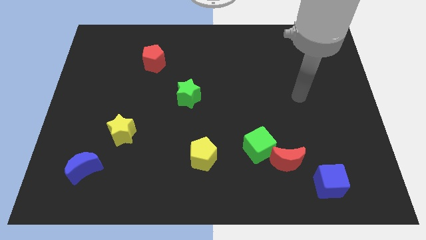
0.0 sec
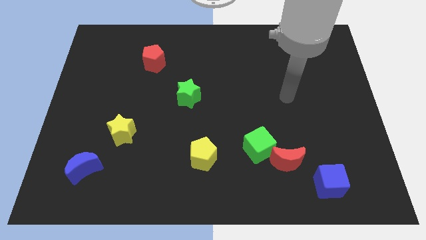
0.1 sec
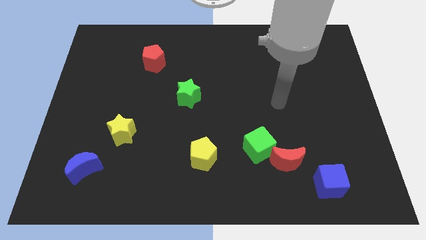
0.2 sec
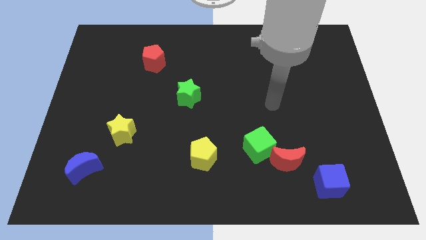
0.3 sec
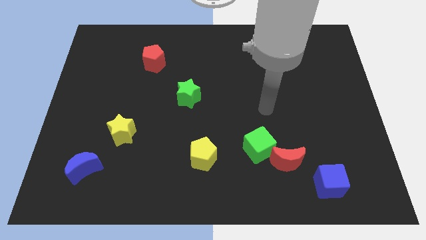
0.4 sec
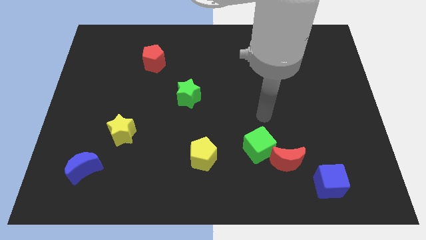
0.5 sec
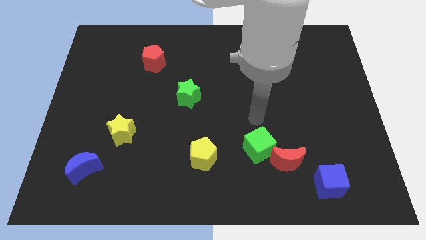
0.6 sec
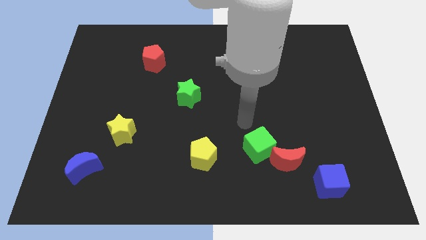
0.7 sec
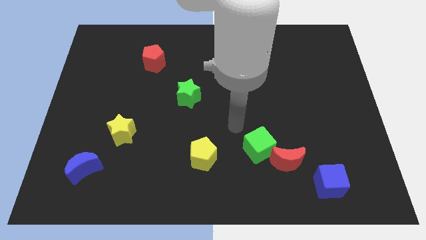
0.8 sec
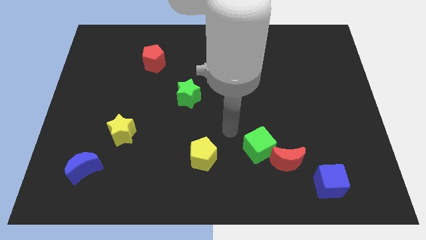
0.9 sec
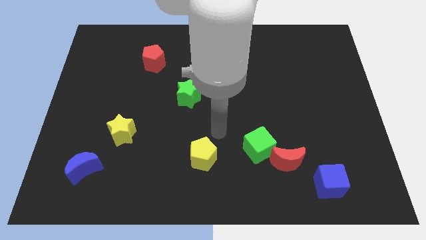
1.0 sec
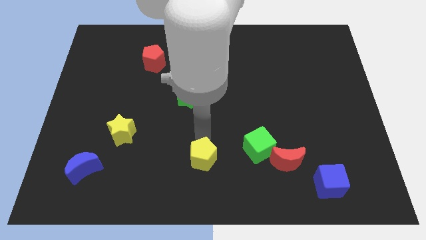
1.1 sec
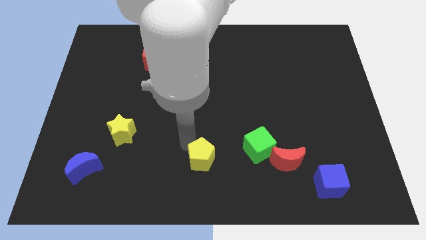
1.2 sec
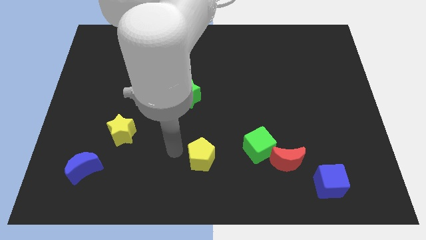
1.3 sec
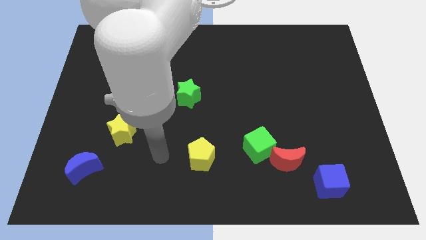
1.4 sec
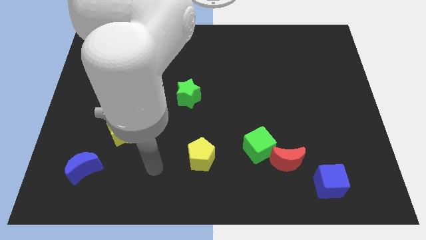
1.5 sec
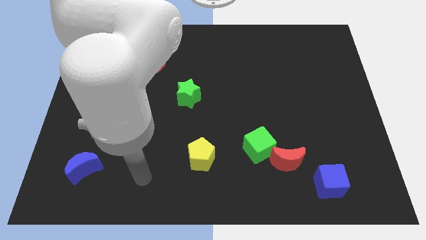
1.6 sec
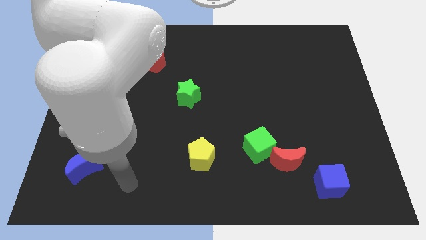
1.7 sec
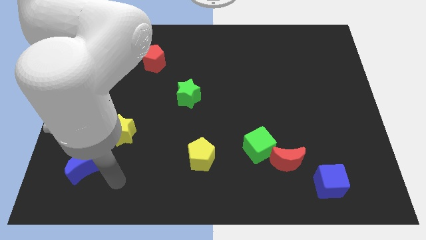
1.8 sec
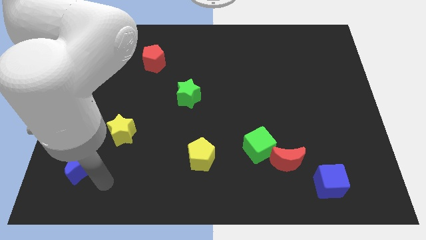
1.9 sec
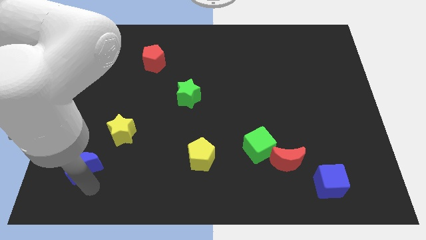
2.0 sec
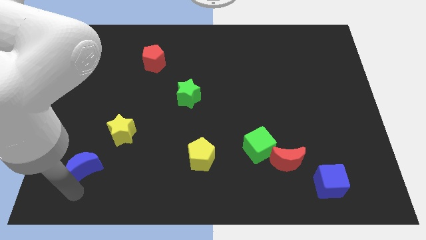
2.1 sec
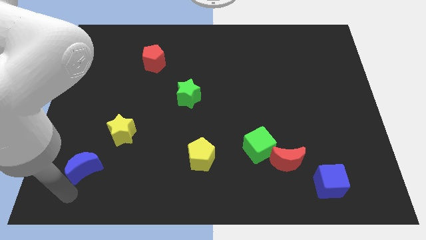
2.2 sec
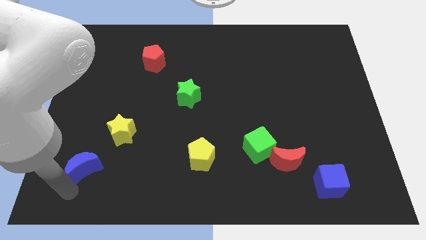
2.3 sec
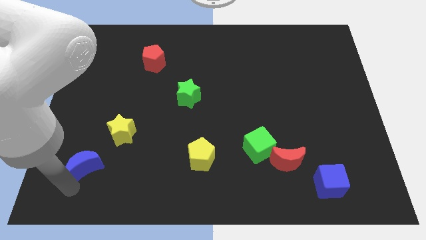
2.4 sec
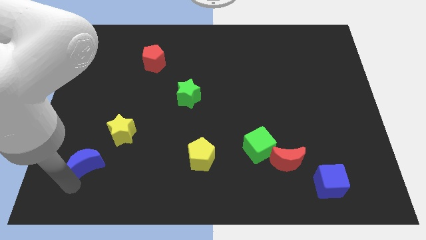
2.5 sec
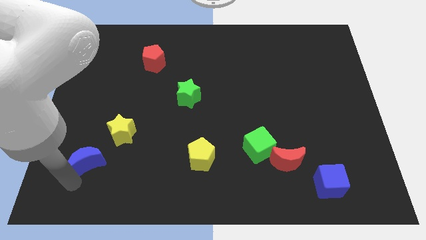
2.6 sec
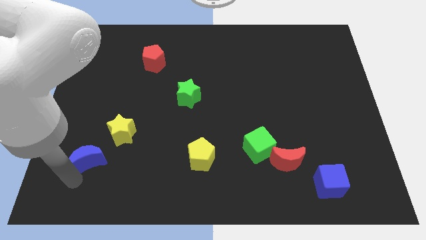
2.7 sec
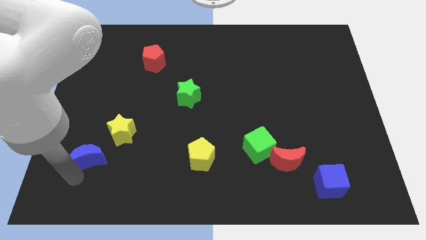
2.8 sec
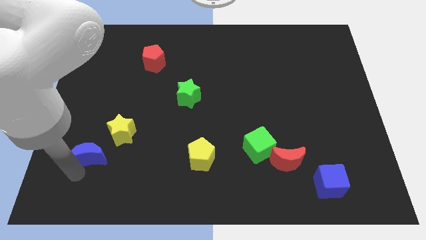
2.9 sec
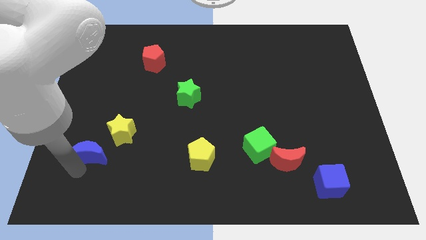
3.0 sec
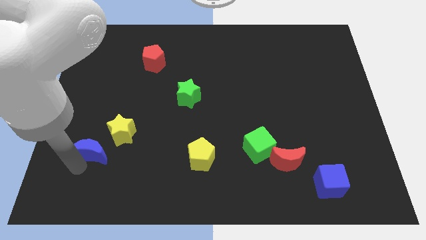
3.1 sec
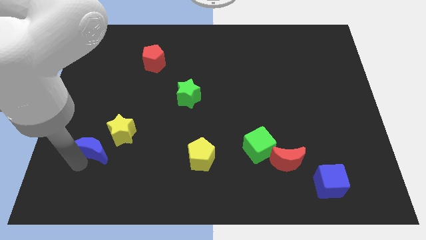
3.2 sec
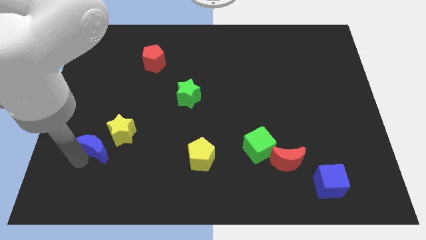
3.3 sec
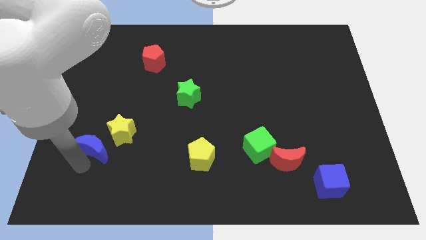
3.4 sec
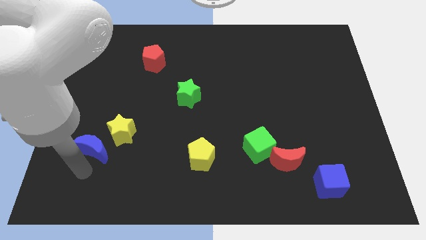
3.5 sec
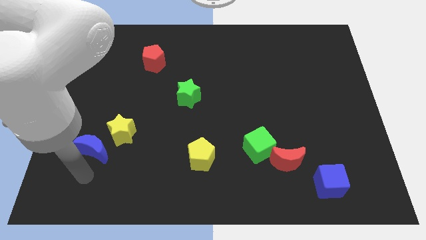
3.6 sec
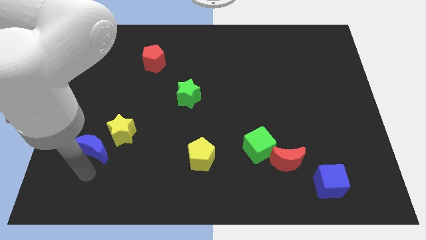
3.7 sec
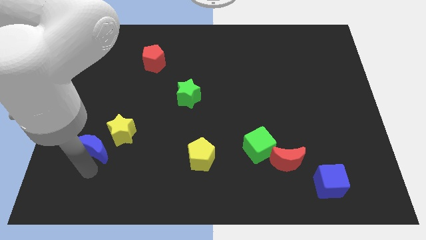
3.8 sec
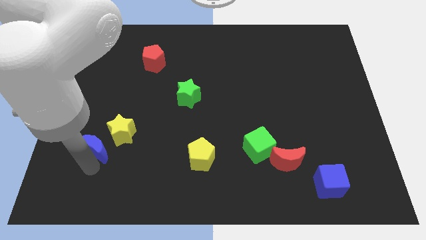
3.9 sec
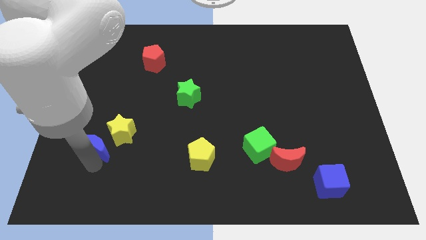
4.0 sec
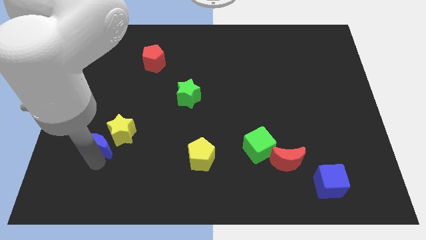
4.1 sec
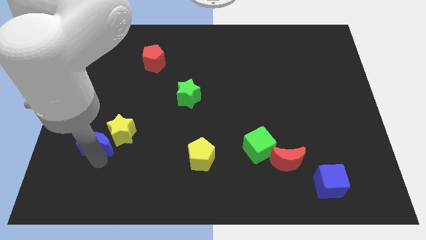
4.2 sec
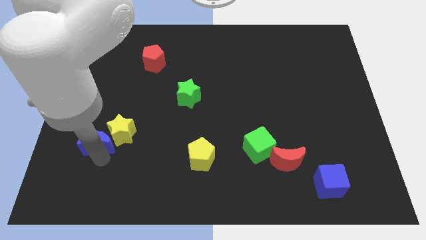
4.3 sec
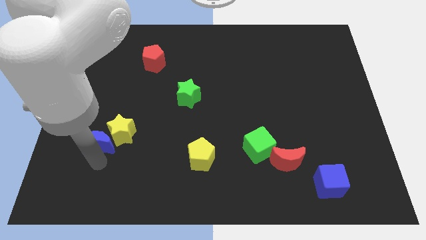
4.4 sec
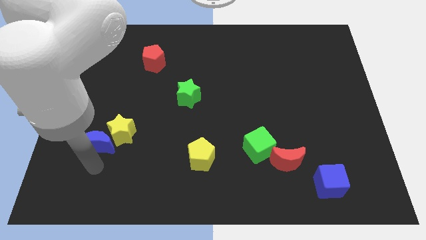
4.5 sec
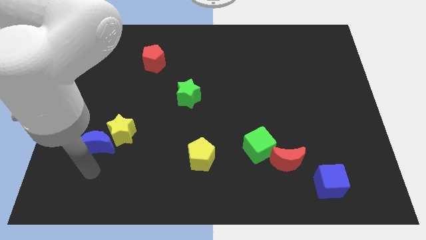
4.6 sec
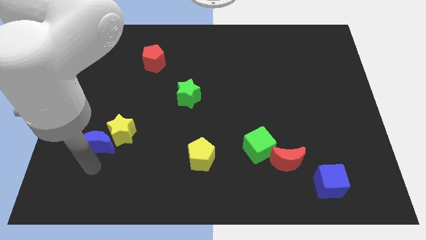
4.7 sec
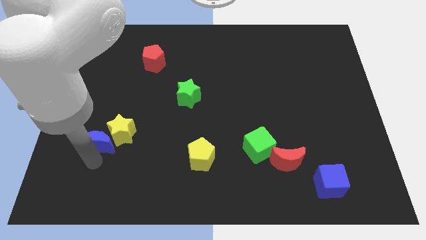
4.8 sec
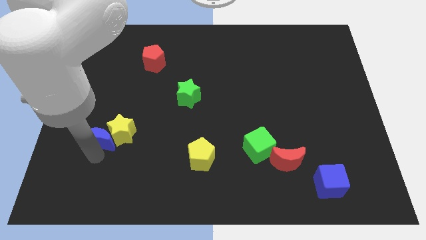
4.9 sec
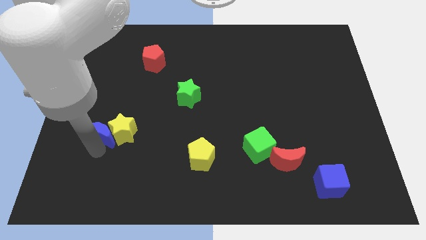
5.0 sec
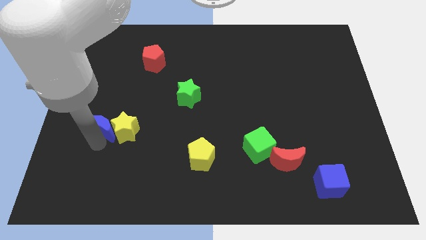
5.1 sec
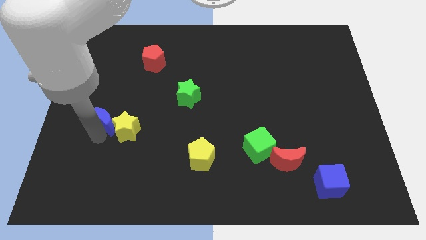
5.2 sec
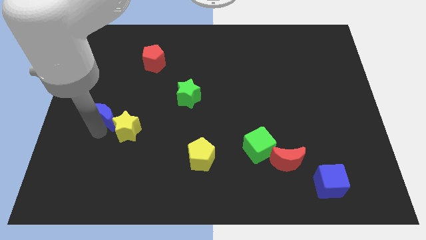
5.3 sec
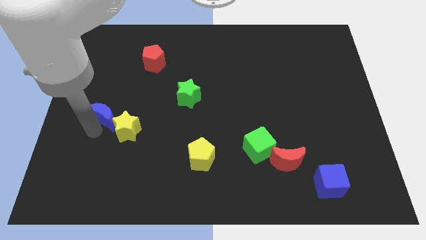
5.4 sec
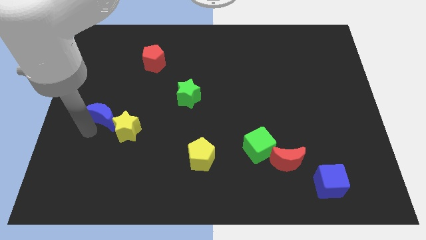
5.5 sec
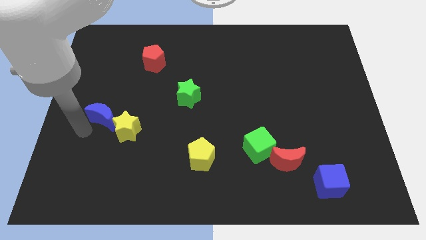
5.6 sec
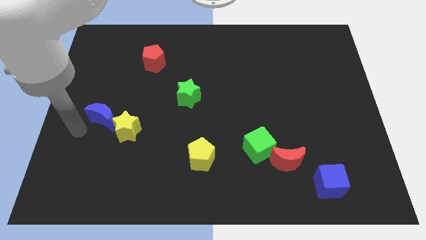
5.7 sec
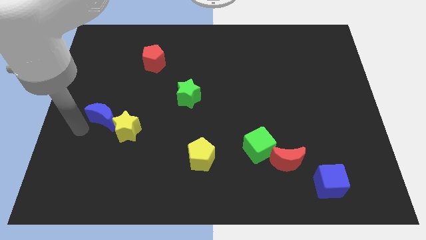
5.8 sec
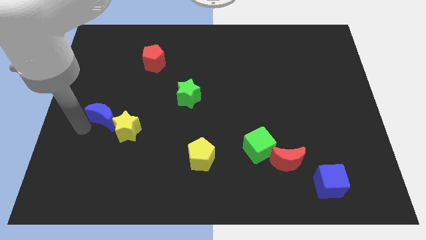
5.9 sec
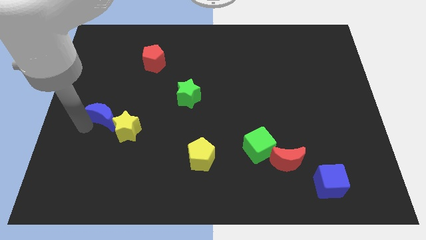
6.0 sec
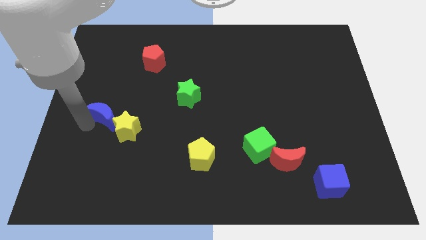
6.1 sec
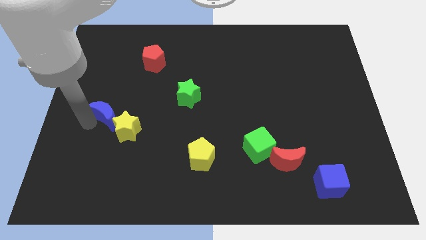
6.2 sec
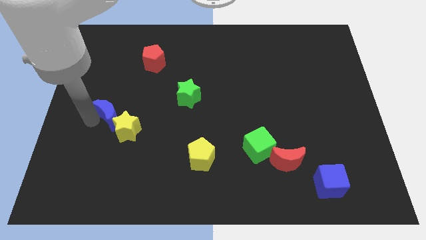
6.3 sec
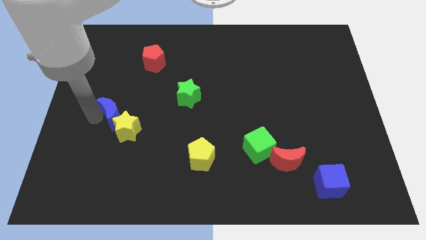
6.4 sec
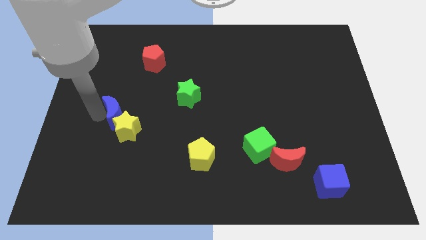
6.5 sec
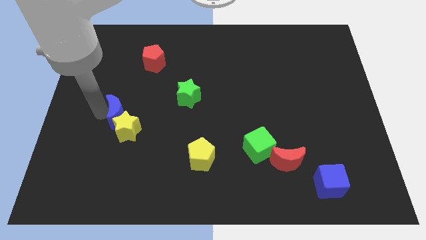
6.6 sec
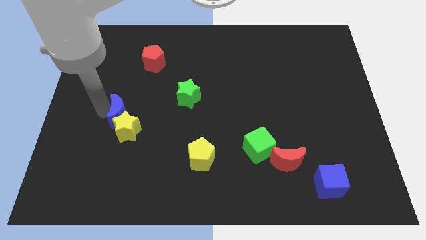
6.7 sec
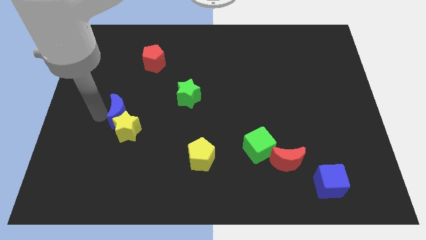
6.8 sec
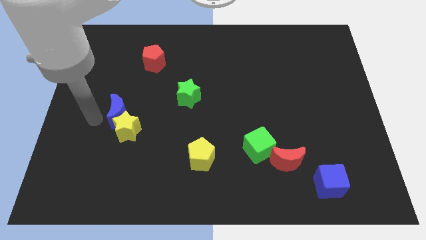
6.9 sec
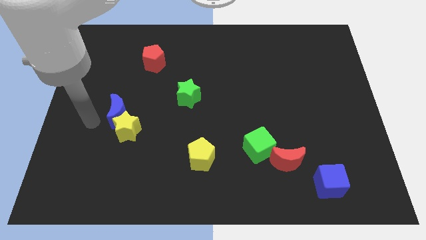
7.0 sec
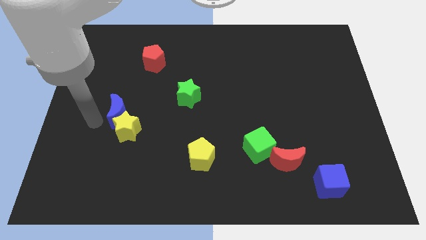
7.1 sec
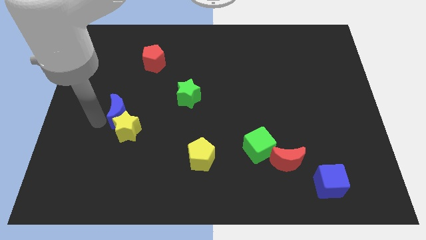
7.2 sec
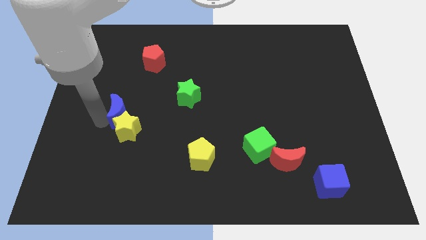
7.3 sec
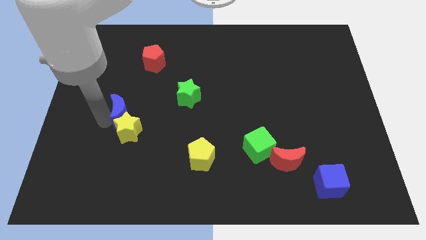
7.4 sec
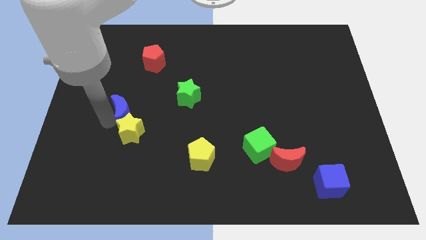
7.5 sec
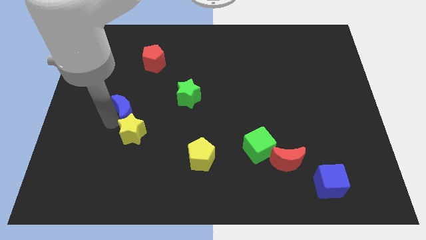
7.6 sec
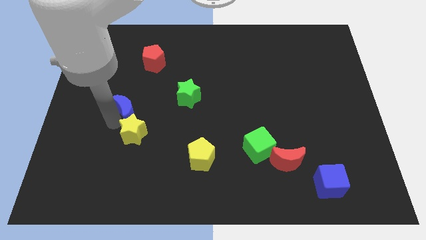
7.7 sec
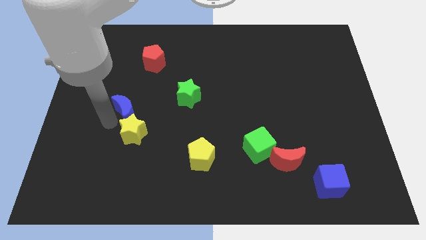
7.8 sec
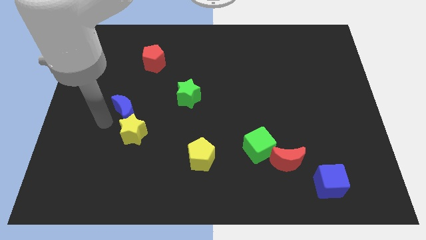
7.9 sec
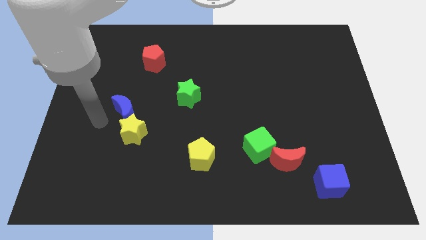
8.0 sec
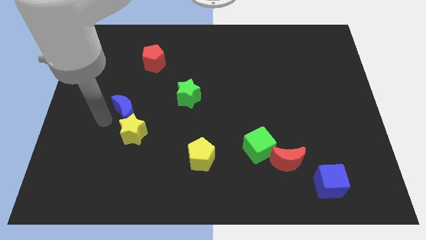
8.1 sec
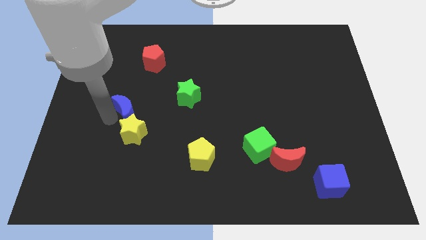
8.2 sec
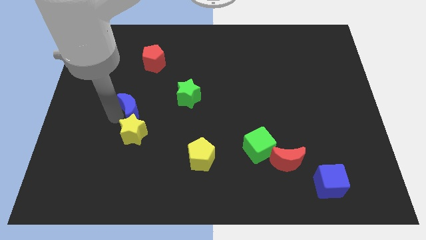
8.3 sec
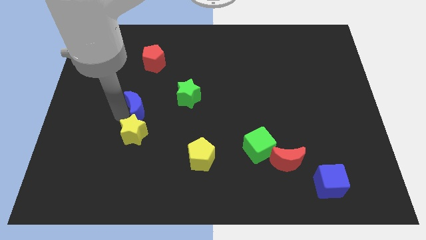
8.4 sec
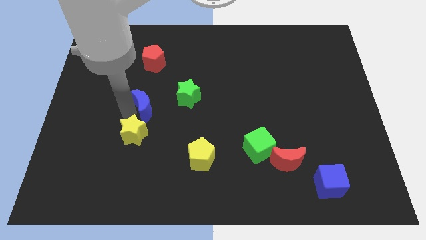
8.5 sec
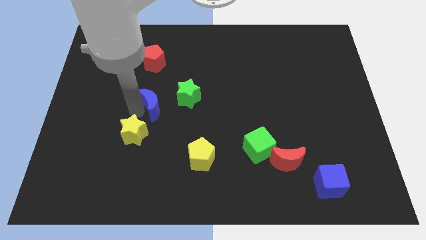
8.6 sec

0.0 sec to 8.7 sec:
push the blue moon upwards and to the right diagonally
